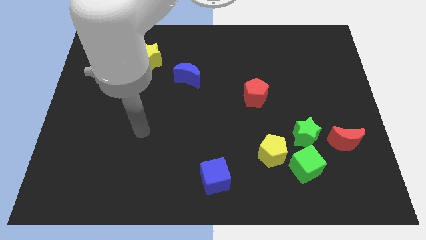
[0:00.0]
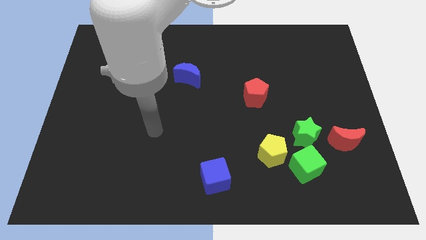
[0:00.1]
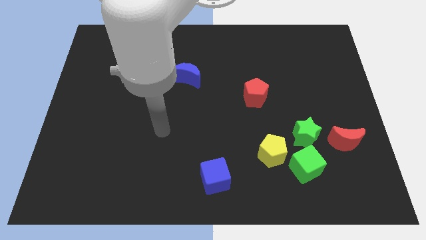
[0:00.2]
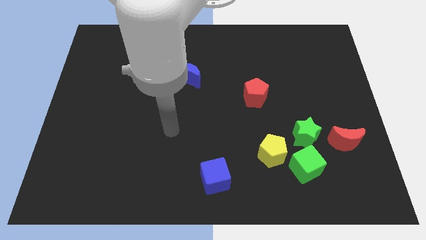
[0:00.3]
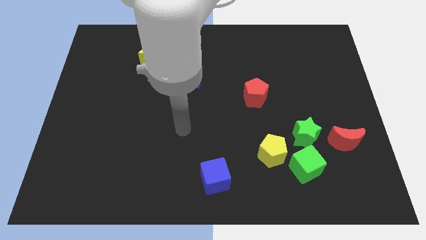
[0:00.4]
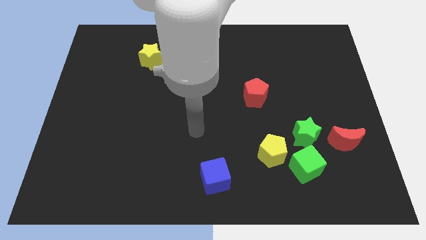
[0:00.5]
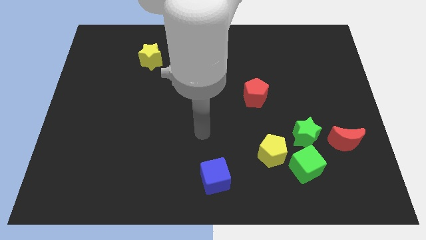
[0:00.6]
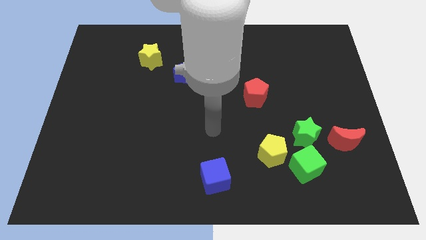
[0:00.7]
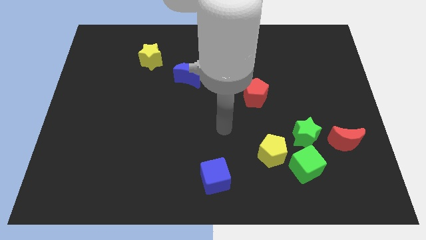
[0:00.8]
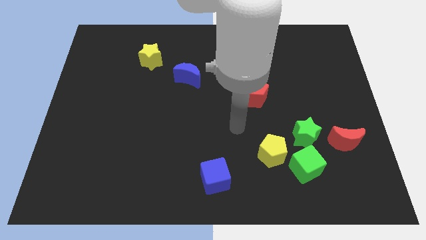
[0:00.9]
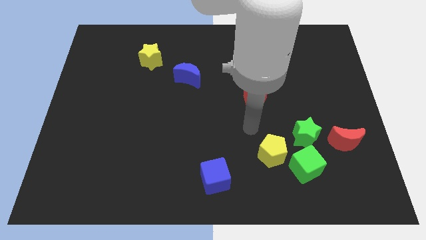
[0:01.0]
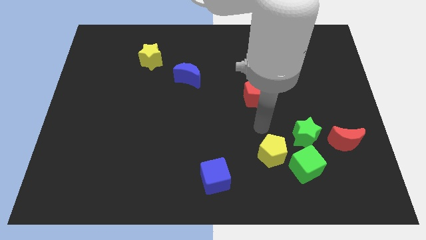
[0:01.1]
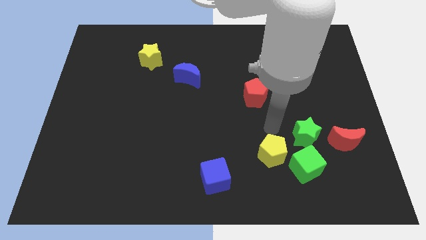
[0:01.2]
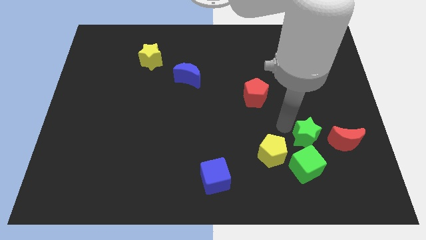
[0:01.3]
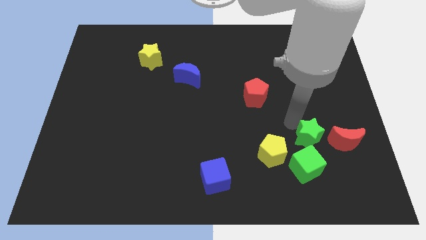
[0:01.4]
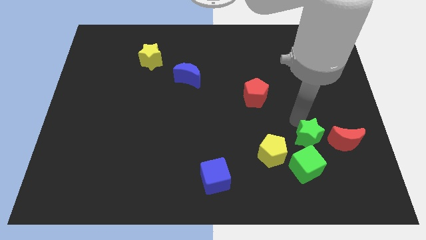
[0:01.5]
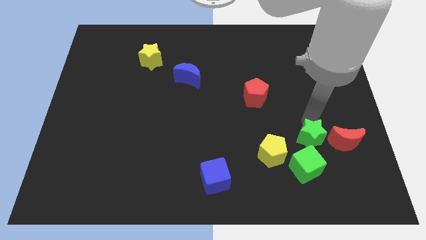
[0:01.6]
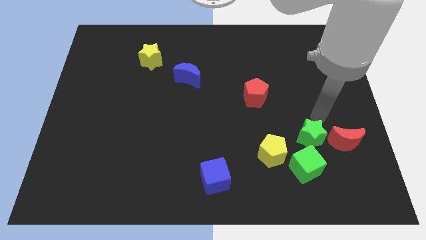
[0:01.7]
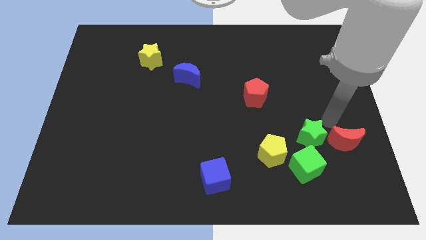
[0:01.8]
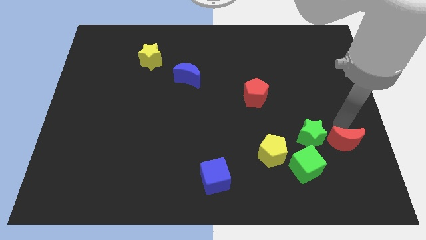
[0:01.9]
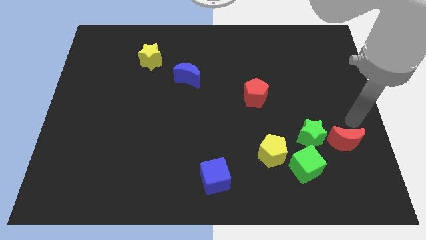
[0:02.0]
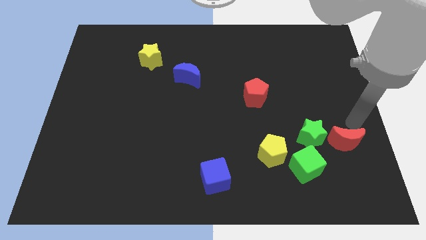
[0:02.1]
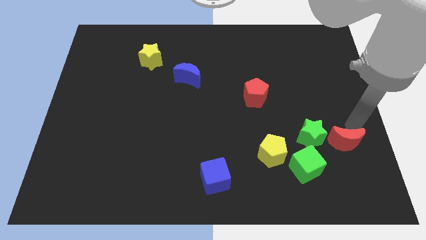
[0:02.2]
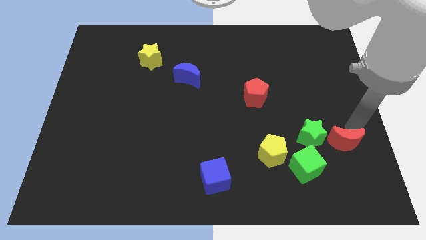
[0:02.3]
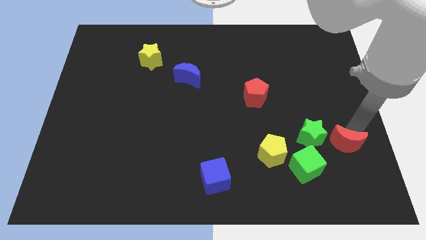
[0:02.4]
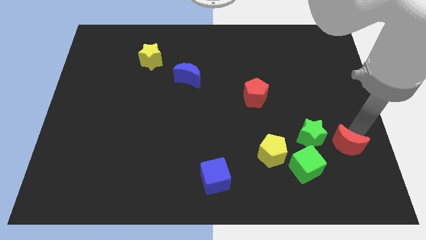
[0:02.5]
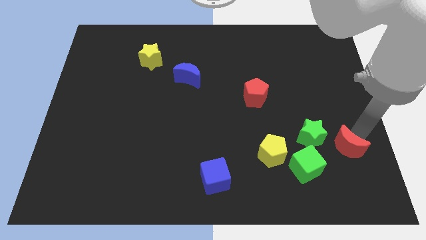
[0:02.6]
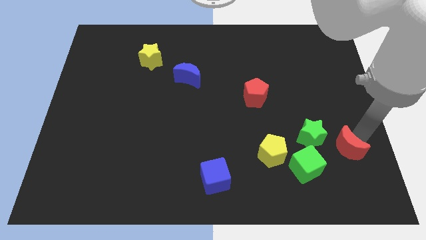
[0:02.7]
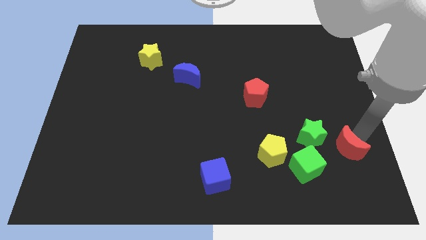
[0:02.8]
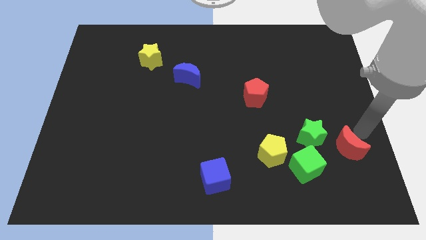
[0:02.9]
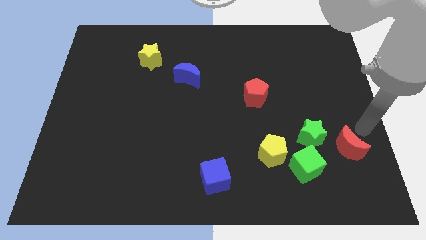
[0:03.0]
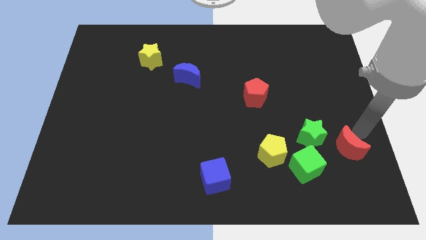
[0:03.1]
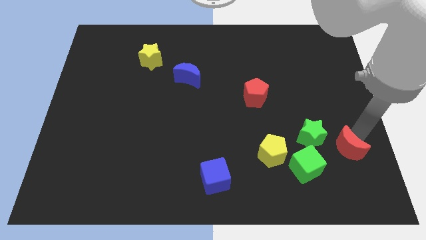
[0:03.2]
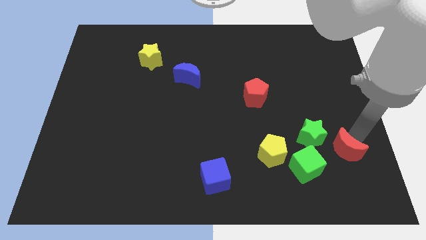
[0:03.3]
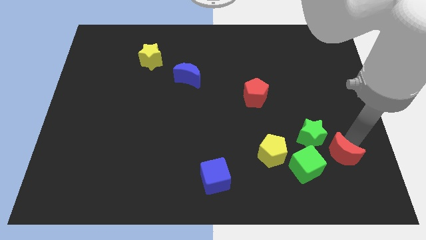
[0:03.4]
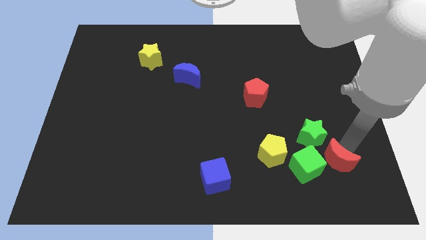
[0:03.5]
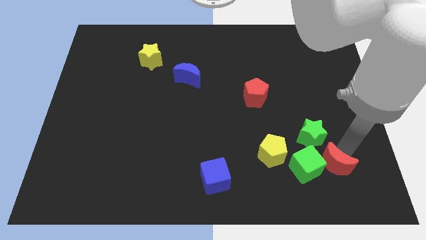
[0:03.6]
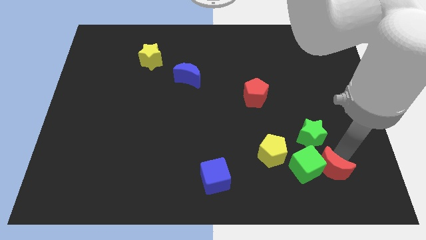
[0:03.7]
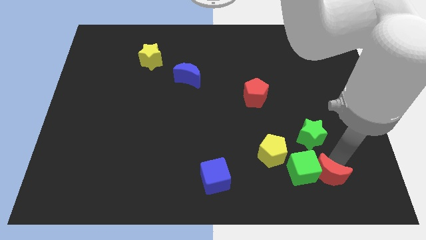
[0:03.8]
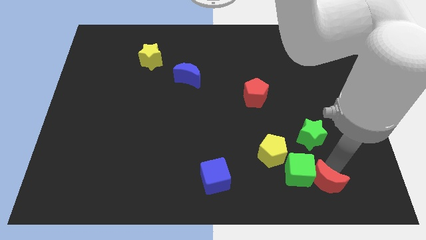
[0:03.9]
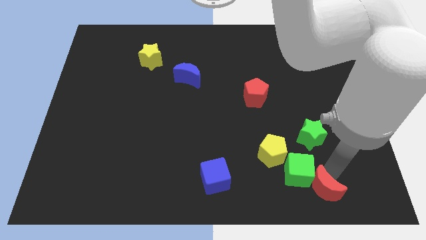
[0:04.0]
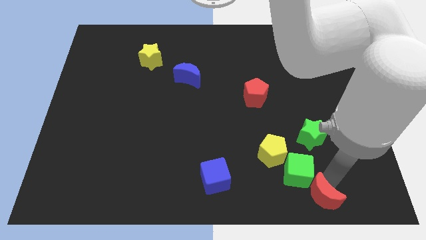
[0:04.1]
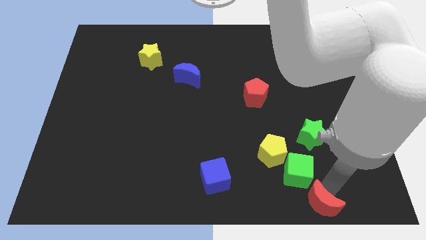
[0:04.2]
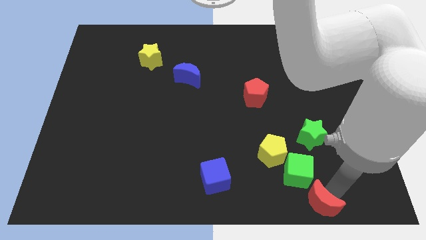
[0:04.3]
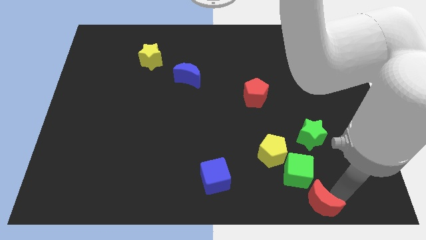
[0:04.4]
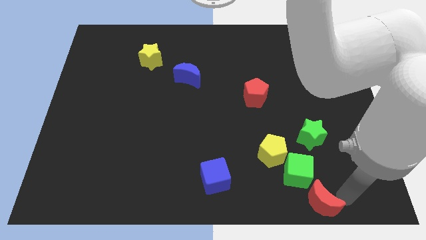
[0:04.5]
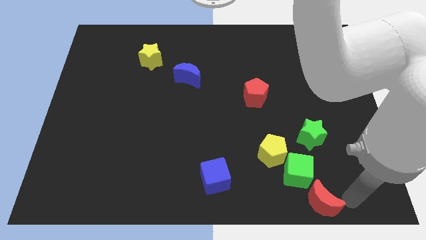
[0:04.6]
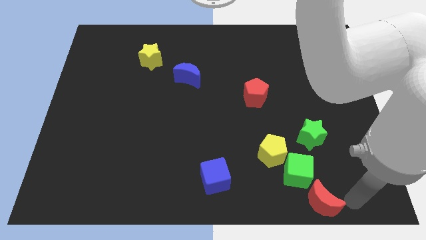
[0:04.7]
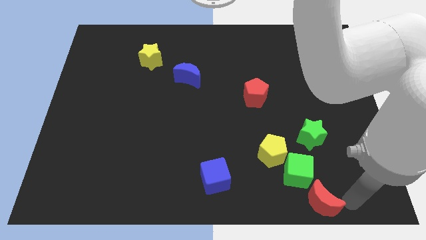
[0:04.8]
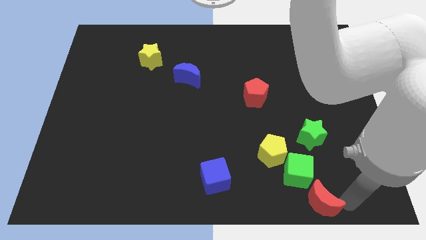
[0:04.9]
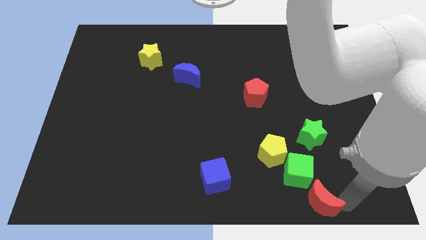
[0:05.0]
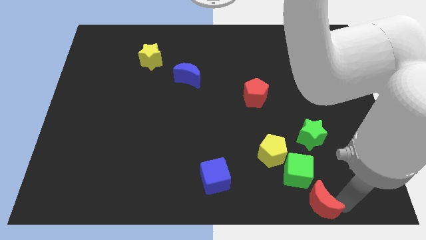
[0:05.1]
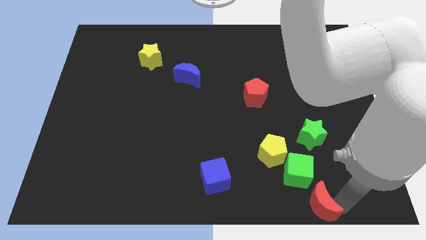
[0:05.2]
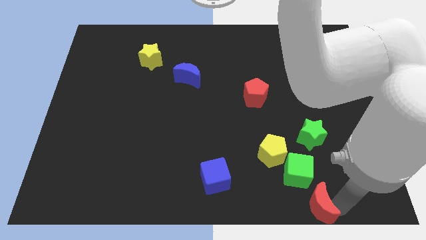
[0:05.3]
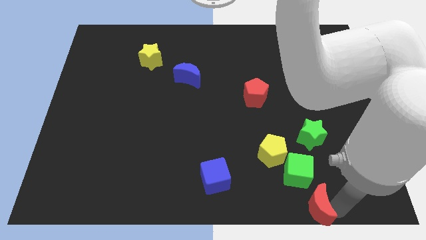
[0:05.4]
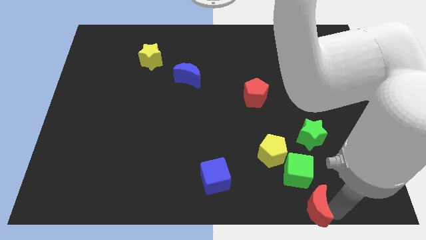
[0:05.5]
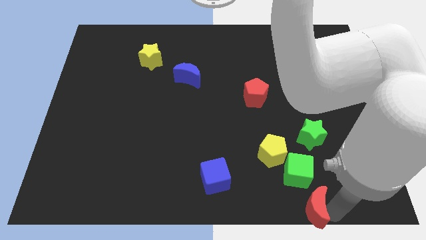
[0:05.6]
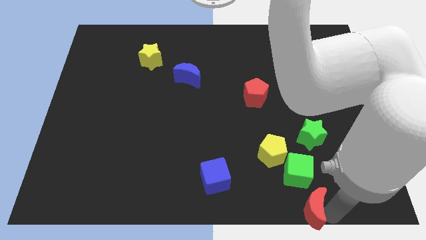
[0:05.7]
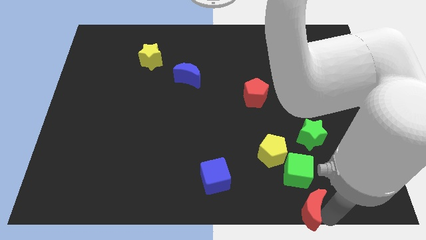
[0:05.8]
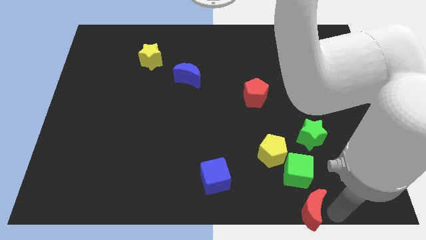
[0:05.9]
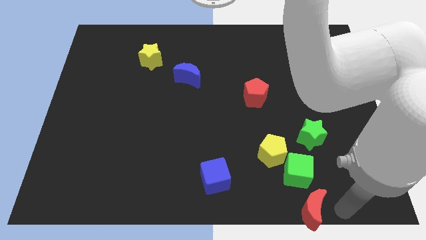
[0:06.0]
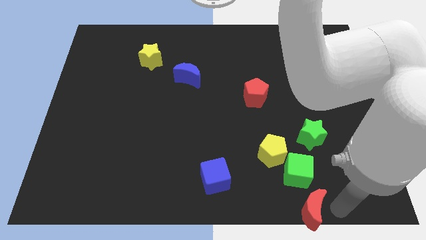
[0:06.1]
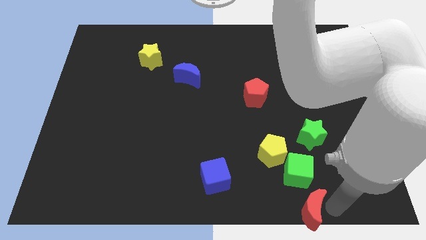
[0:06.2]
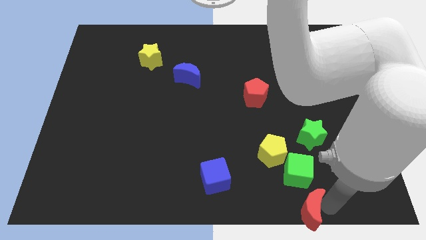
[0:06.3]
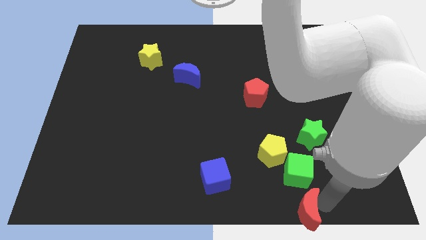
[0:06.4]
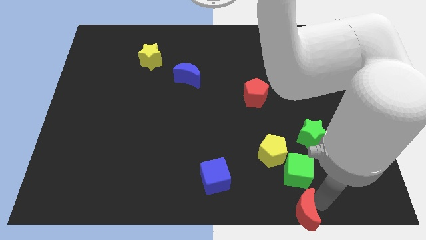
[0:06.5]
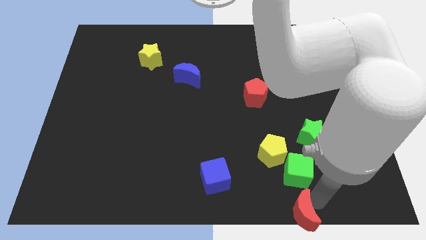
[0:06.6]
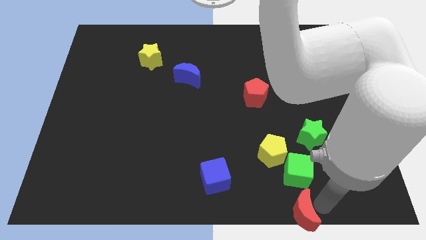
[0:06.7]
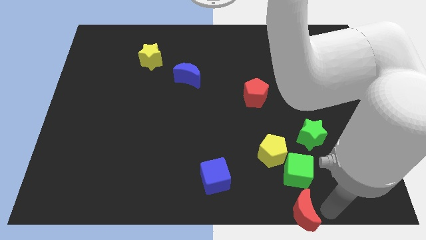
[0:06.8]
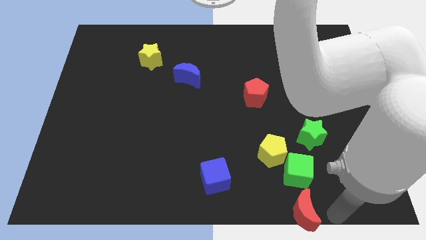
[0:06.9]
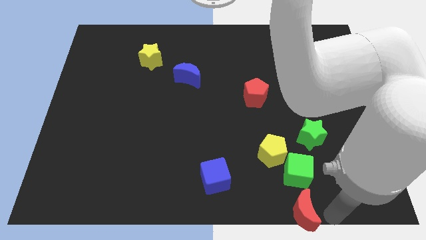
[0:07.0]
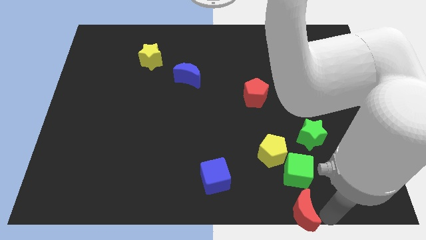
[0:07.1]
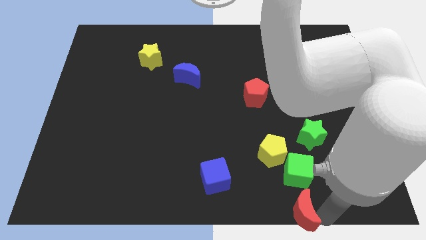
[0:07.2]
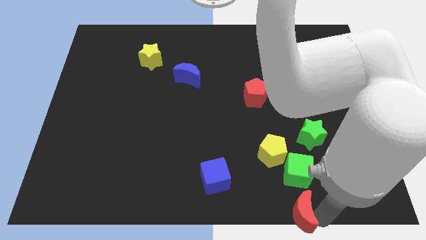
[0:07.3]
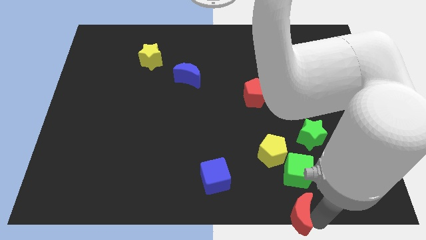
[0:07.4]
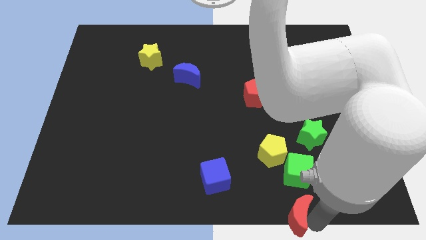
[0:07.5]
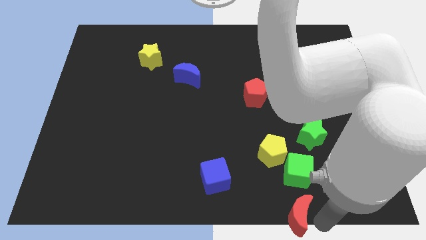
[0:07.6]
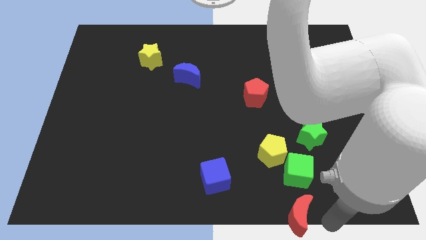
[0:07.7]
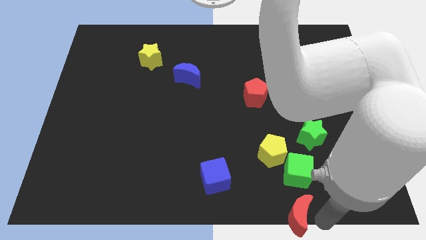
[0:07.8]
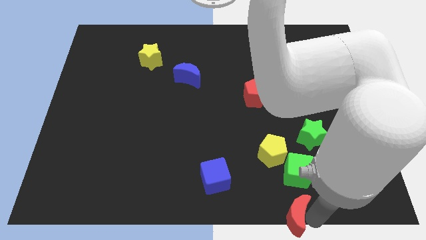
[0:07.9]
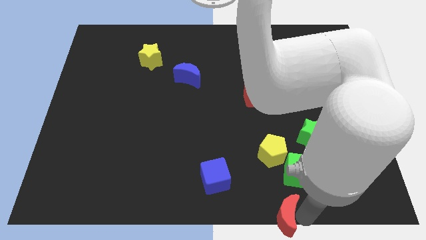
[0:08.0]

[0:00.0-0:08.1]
push the red moon to the bottom side
